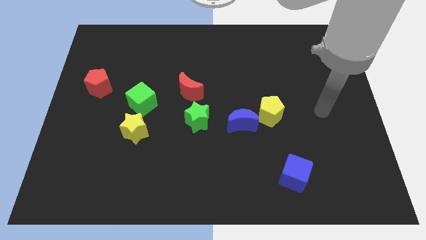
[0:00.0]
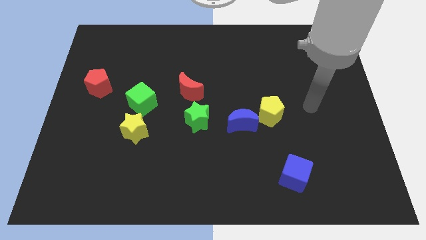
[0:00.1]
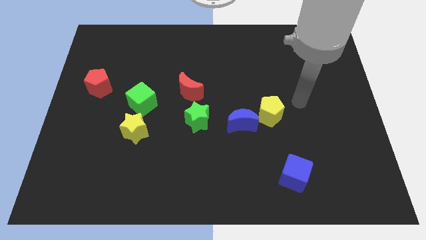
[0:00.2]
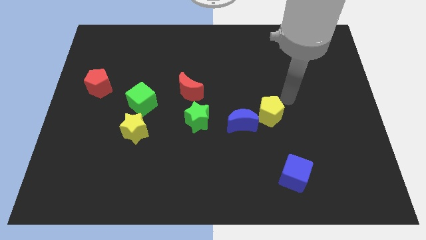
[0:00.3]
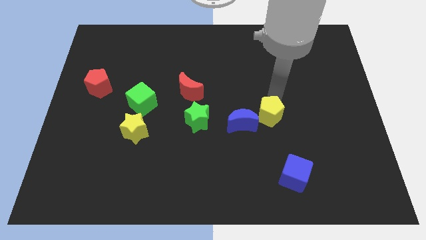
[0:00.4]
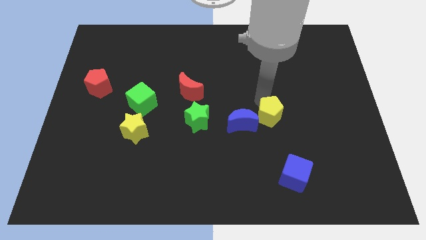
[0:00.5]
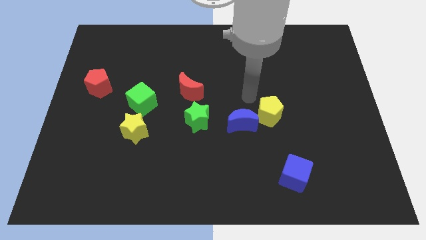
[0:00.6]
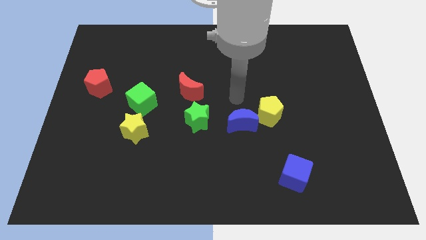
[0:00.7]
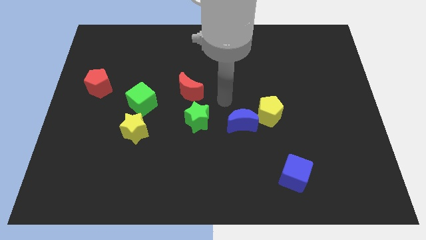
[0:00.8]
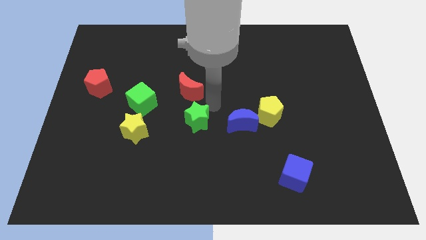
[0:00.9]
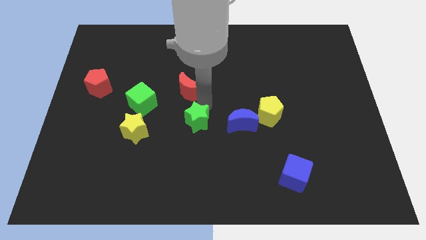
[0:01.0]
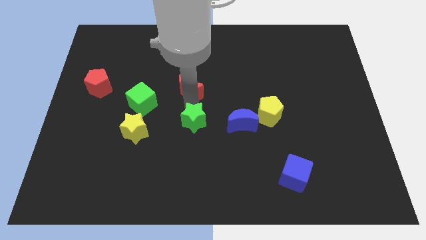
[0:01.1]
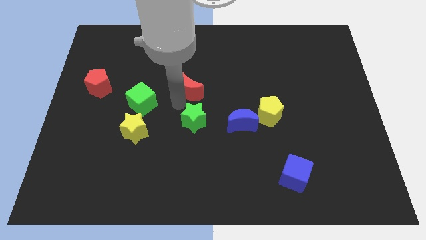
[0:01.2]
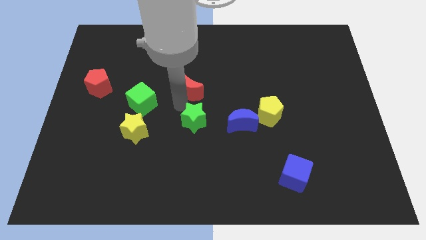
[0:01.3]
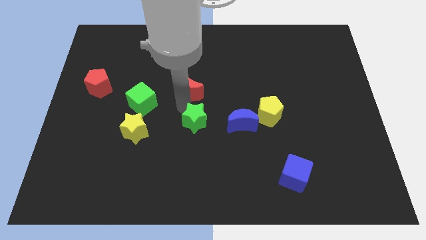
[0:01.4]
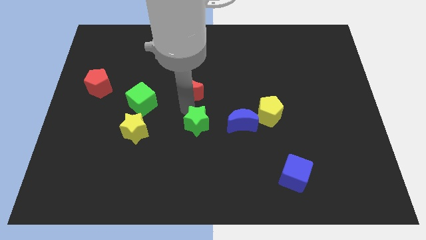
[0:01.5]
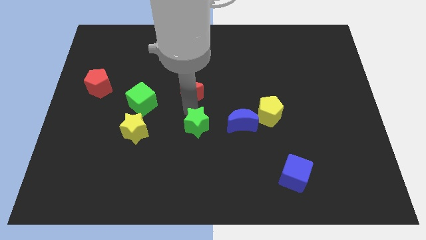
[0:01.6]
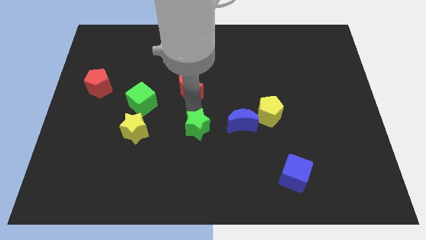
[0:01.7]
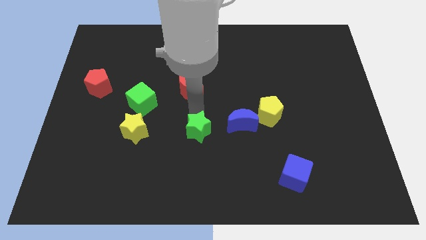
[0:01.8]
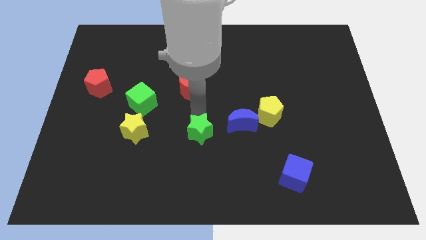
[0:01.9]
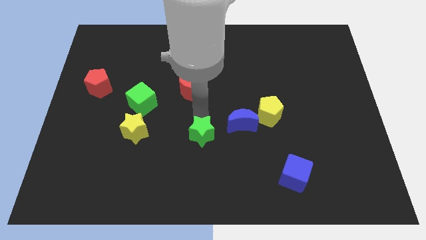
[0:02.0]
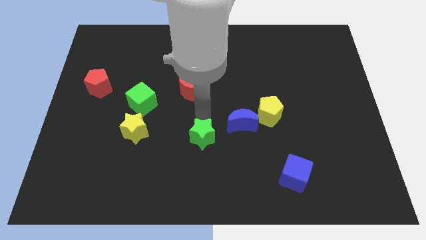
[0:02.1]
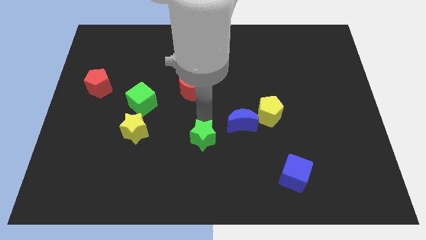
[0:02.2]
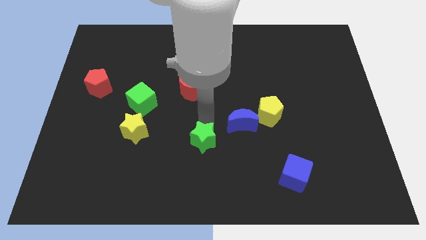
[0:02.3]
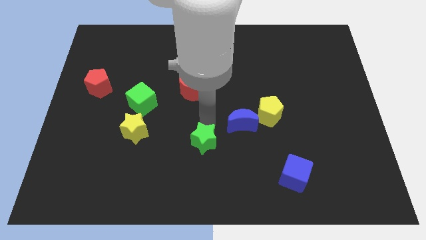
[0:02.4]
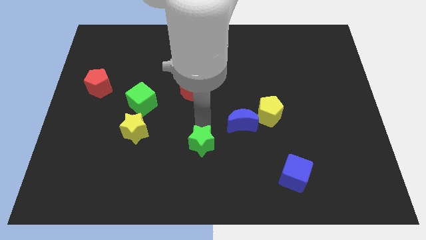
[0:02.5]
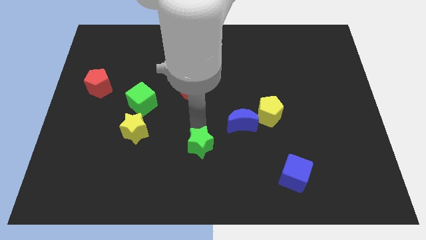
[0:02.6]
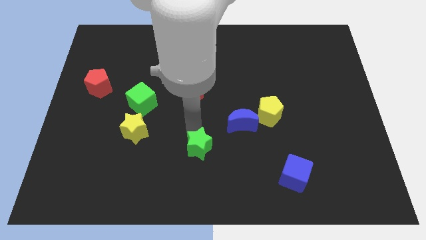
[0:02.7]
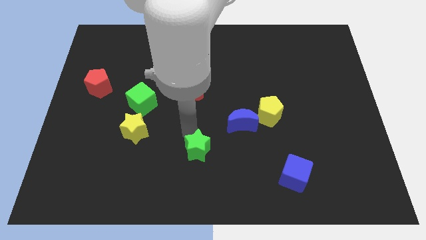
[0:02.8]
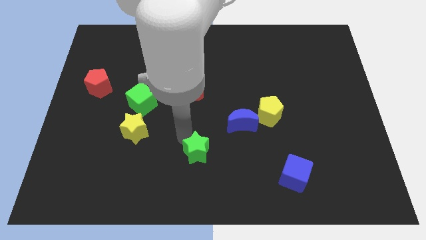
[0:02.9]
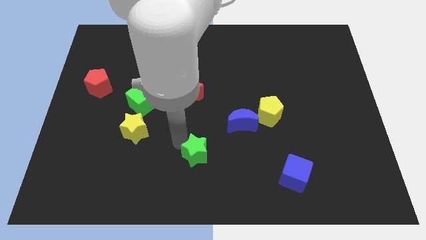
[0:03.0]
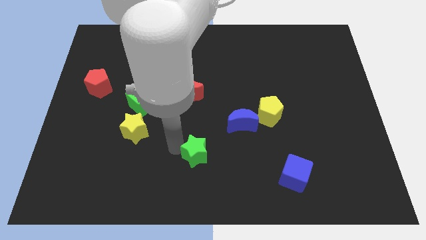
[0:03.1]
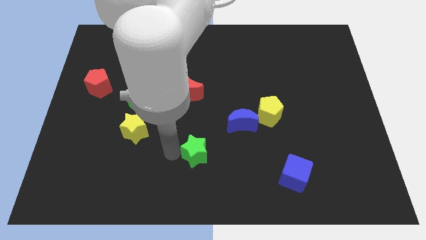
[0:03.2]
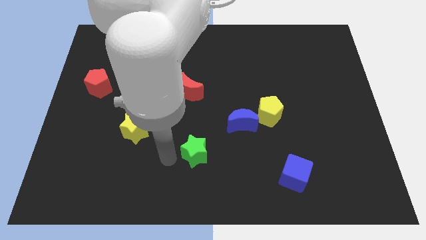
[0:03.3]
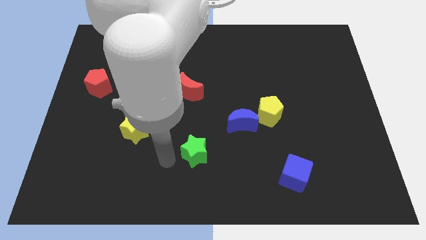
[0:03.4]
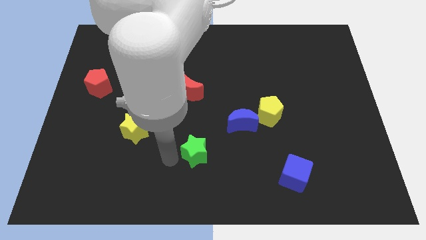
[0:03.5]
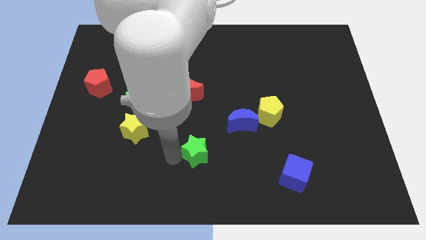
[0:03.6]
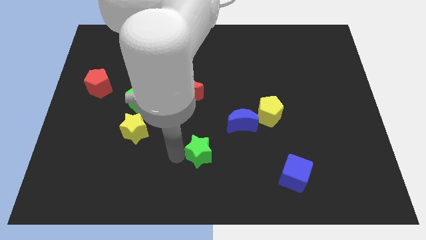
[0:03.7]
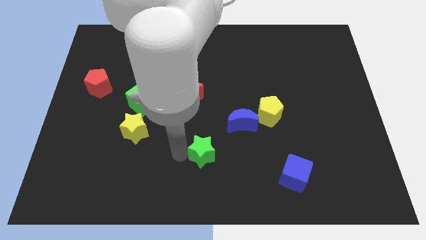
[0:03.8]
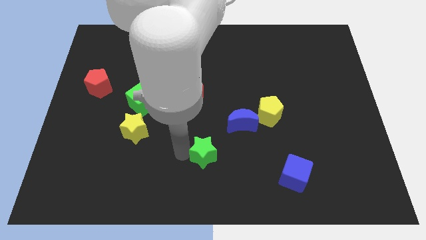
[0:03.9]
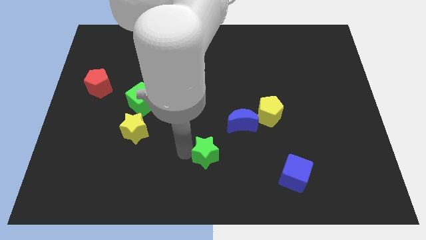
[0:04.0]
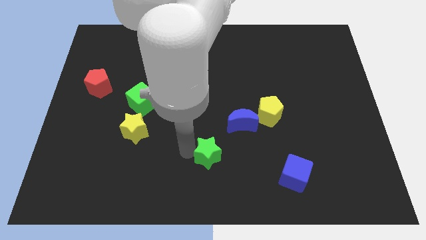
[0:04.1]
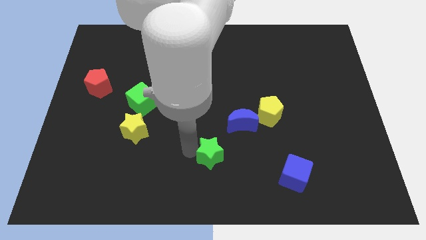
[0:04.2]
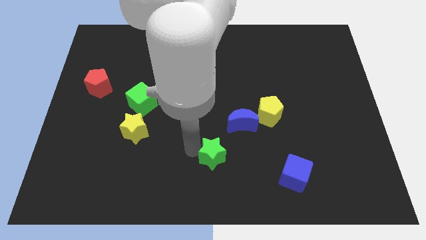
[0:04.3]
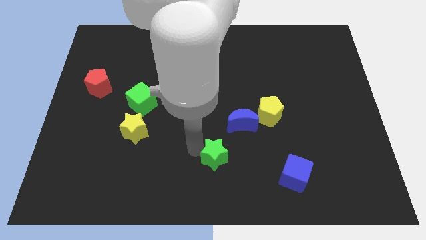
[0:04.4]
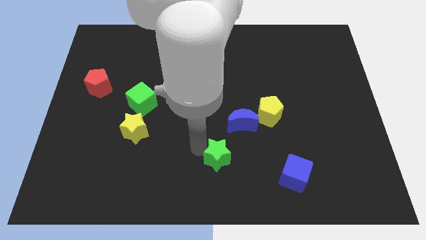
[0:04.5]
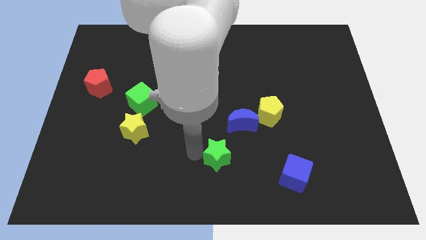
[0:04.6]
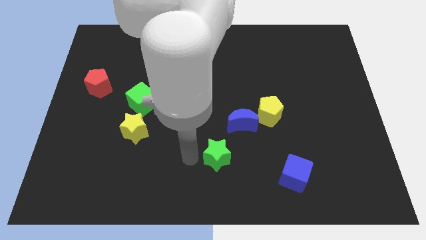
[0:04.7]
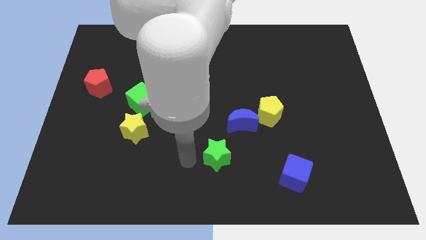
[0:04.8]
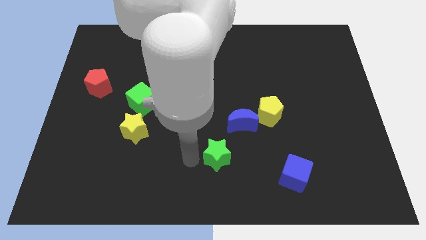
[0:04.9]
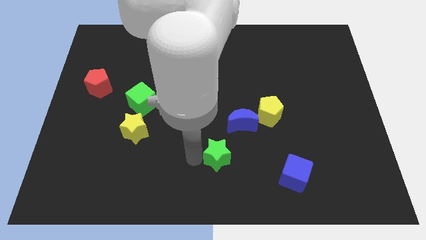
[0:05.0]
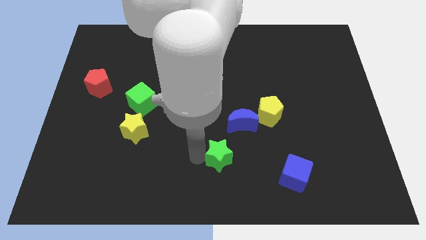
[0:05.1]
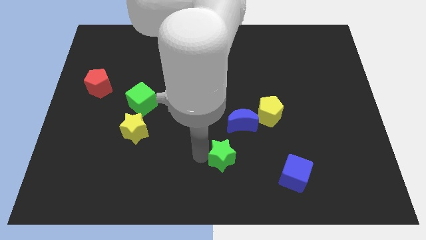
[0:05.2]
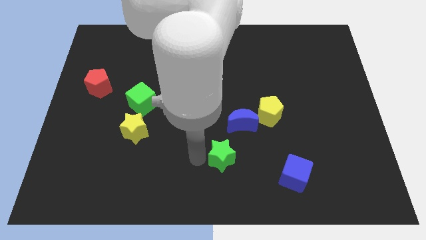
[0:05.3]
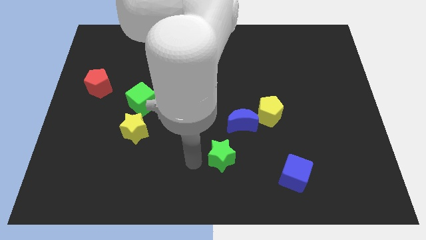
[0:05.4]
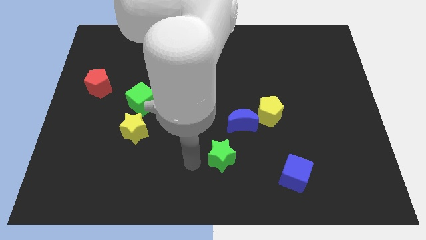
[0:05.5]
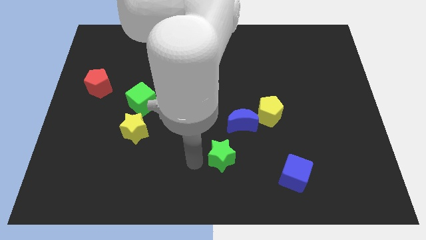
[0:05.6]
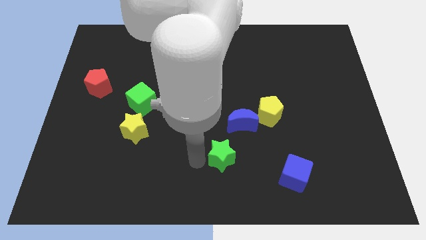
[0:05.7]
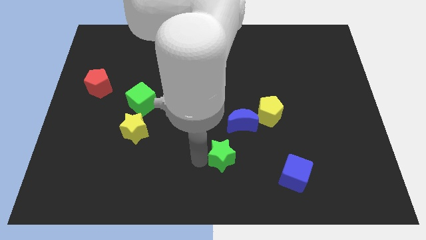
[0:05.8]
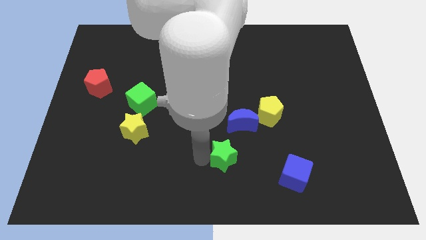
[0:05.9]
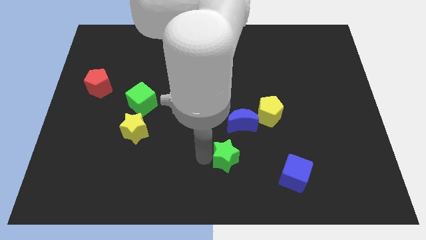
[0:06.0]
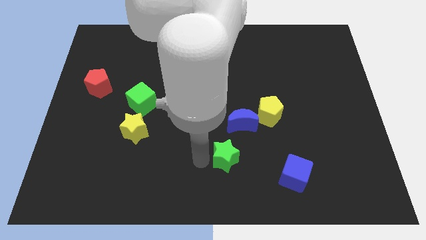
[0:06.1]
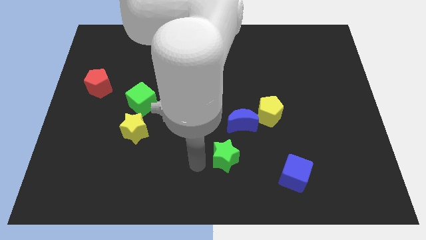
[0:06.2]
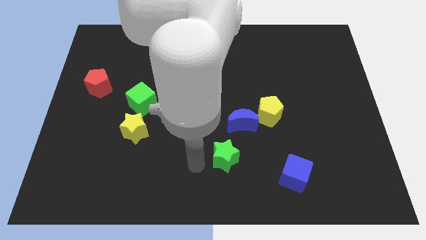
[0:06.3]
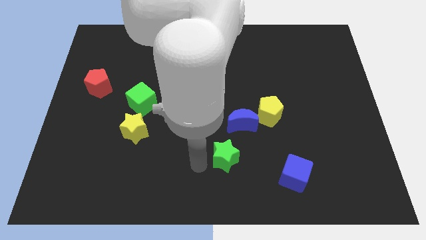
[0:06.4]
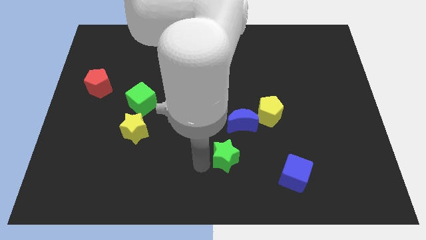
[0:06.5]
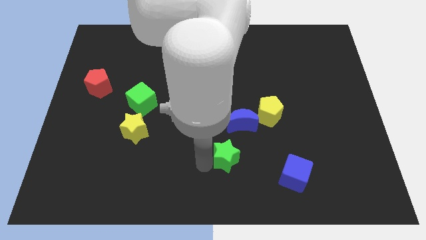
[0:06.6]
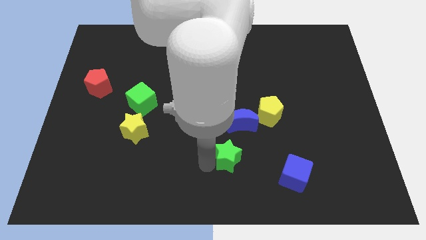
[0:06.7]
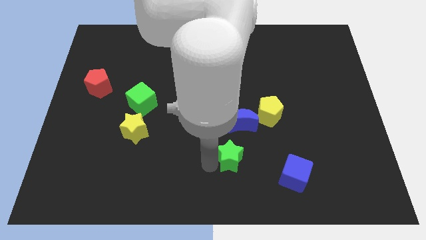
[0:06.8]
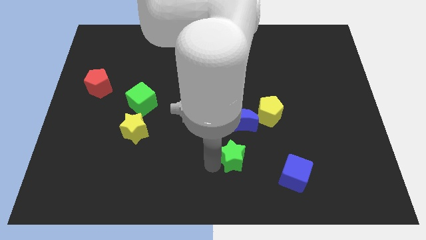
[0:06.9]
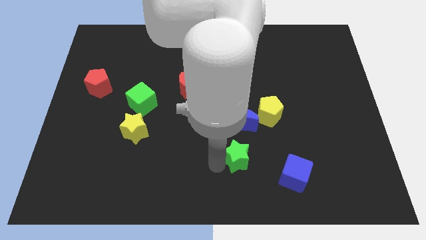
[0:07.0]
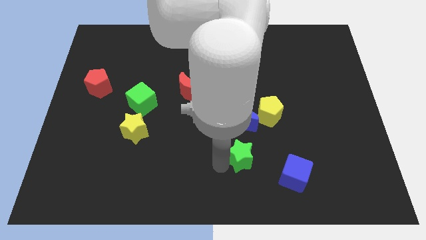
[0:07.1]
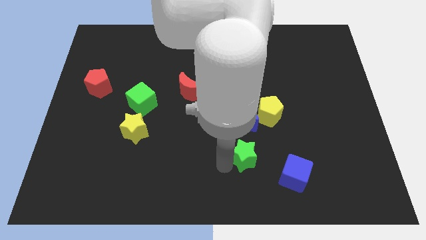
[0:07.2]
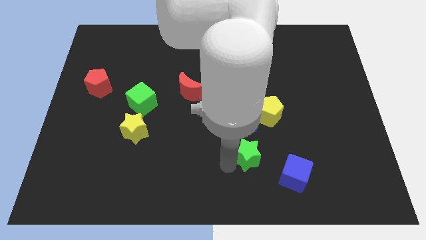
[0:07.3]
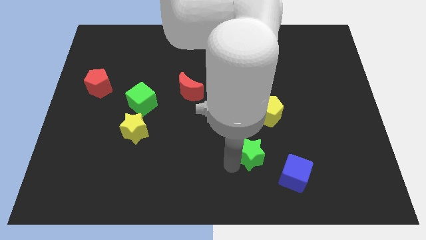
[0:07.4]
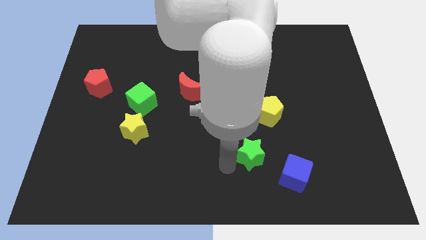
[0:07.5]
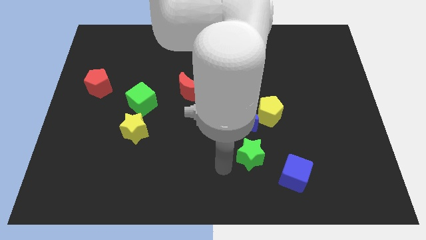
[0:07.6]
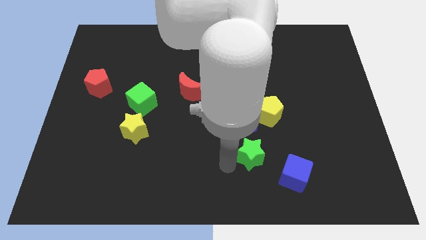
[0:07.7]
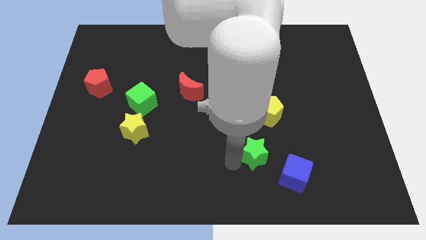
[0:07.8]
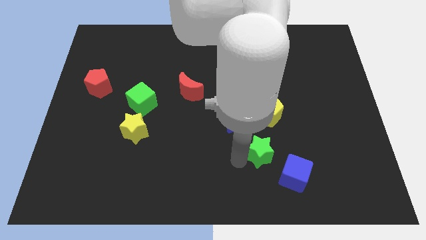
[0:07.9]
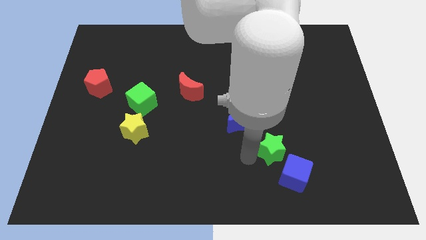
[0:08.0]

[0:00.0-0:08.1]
move the green star above the blue cube
